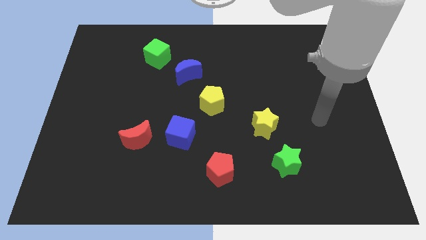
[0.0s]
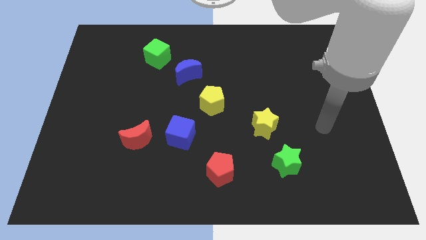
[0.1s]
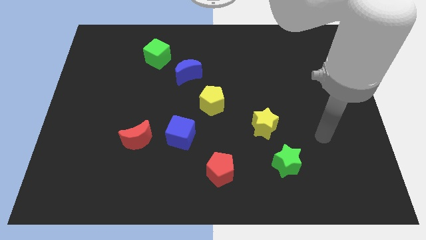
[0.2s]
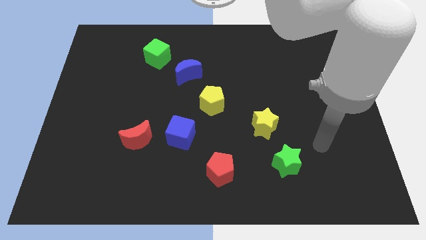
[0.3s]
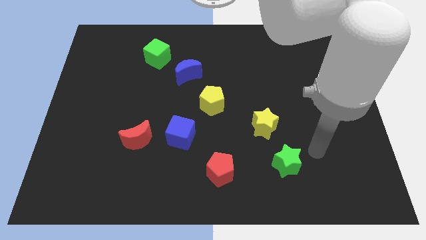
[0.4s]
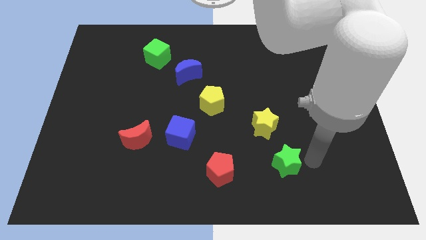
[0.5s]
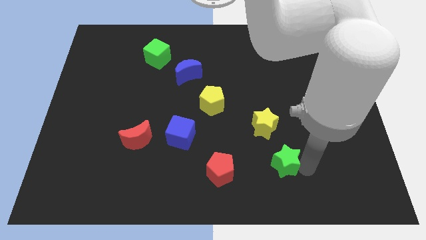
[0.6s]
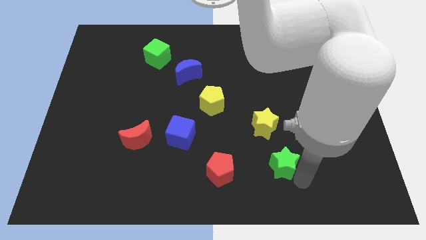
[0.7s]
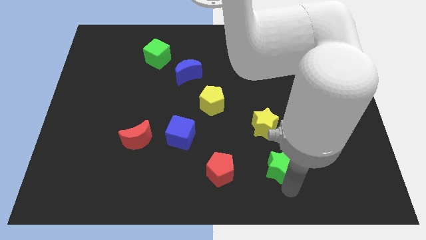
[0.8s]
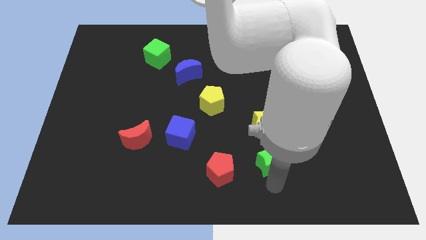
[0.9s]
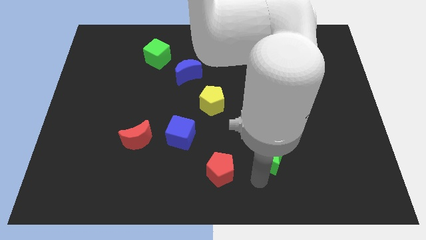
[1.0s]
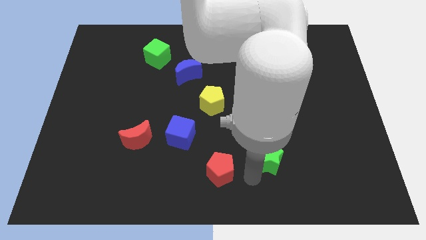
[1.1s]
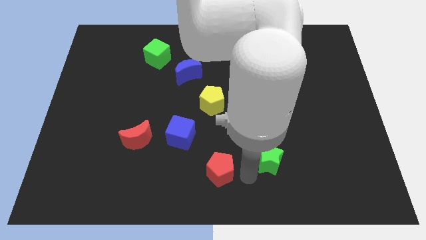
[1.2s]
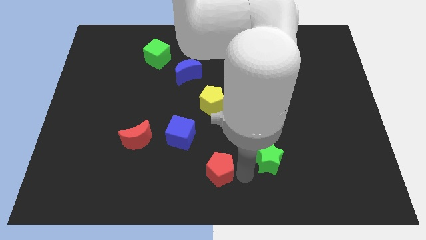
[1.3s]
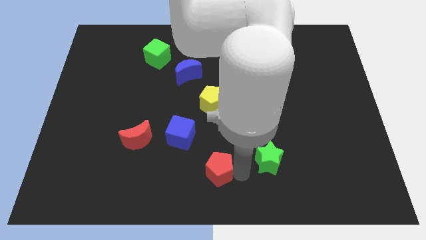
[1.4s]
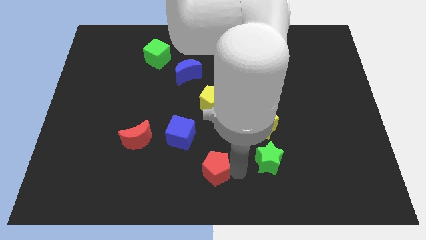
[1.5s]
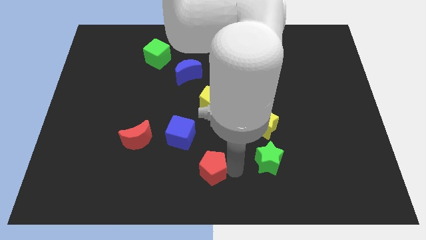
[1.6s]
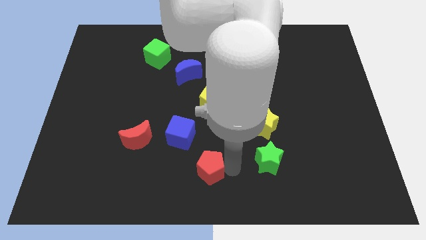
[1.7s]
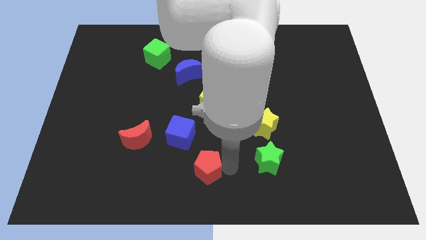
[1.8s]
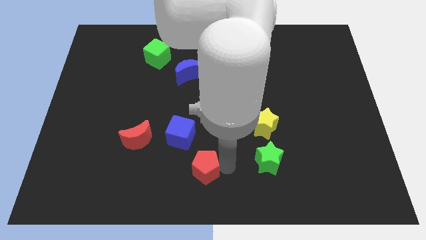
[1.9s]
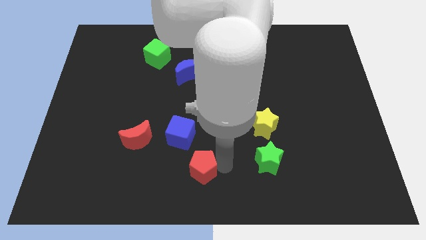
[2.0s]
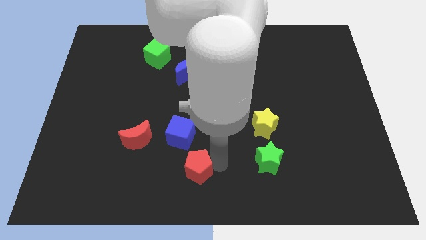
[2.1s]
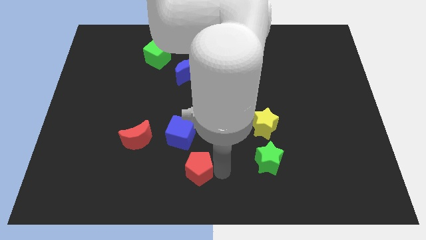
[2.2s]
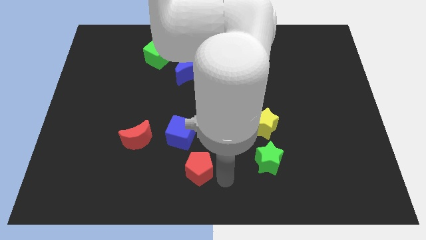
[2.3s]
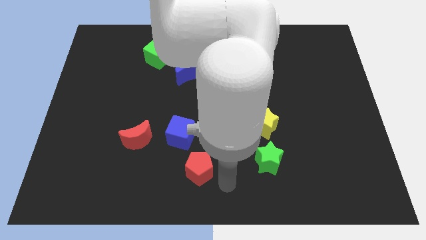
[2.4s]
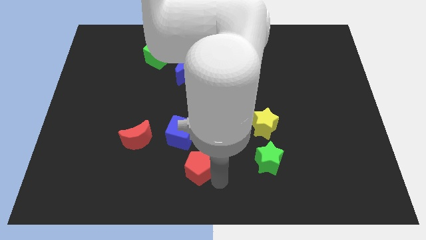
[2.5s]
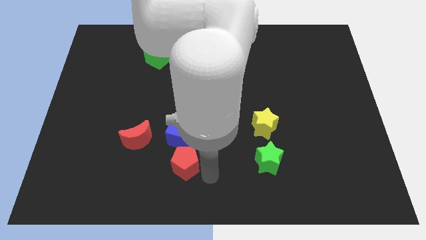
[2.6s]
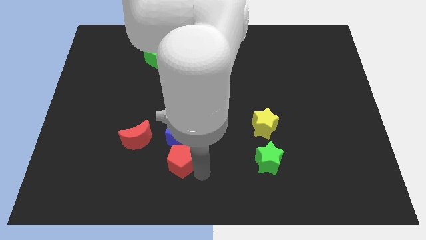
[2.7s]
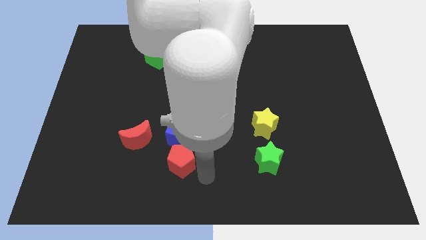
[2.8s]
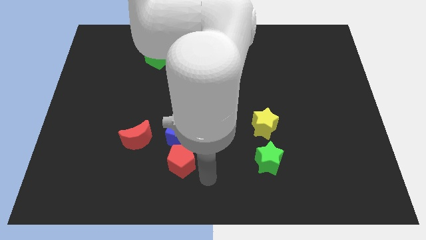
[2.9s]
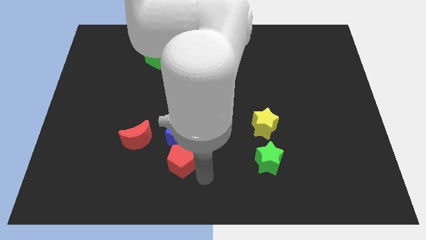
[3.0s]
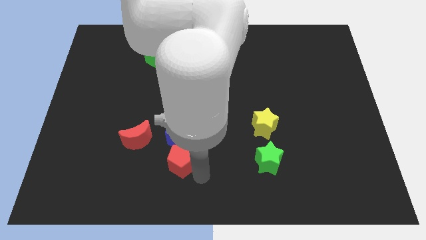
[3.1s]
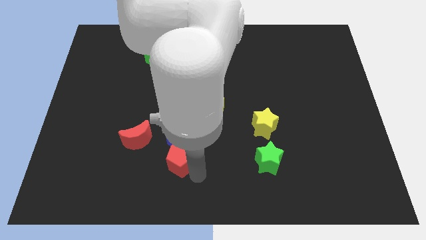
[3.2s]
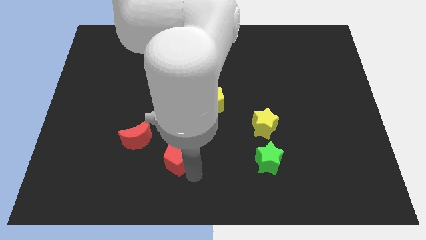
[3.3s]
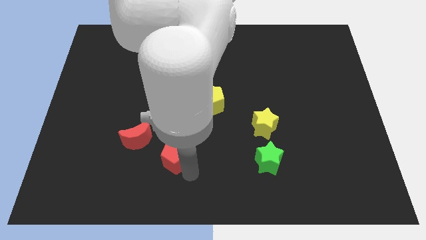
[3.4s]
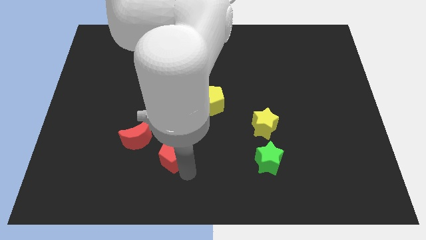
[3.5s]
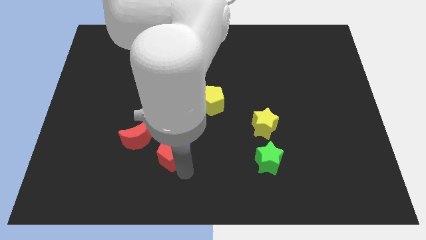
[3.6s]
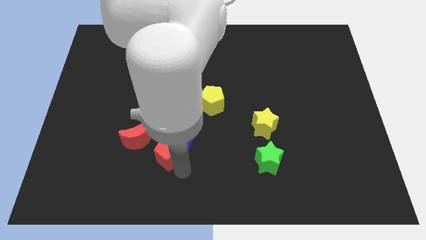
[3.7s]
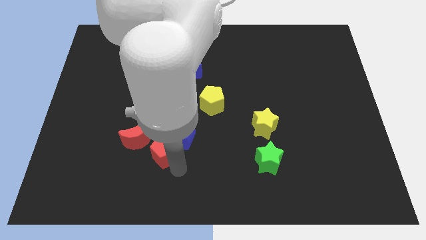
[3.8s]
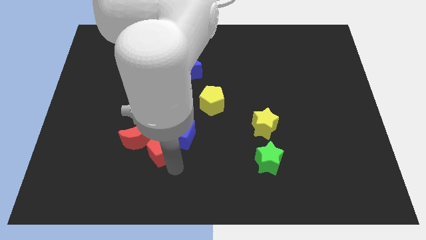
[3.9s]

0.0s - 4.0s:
put the red pentagon close to the red moon

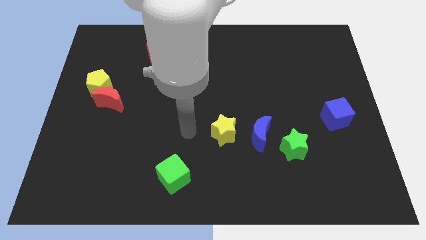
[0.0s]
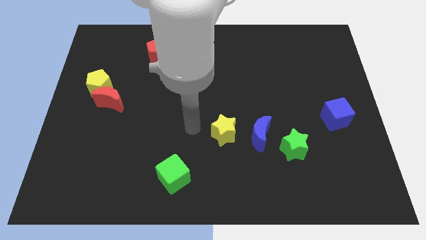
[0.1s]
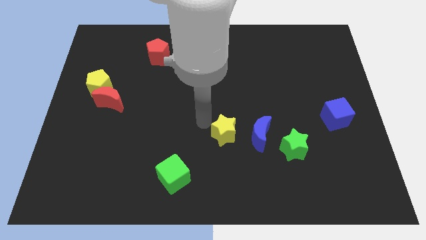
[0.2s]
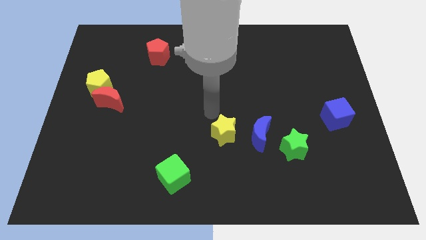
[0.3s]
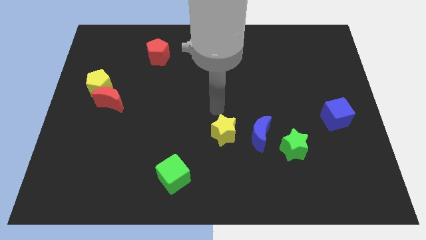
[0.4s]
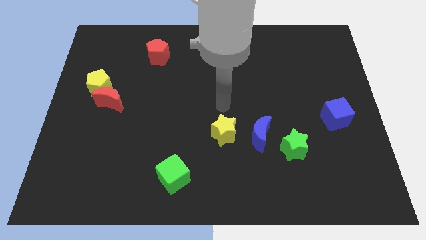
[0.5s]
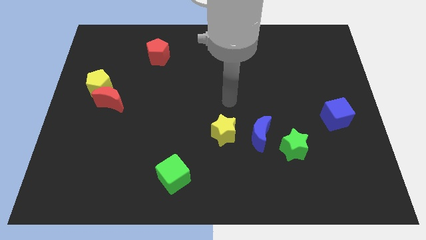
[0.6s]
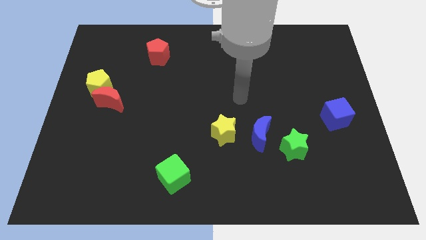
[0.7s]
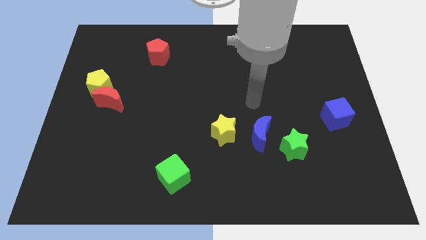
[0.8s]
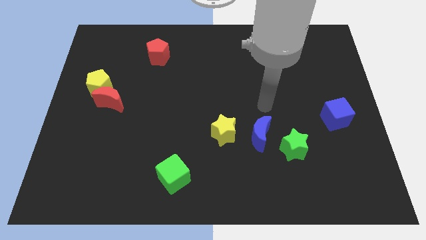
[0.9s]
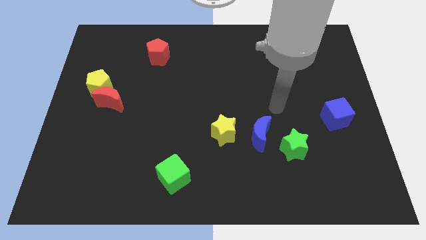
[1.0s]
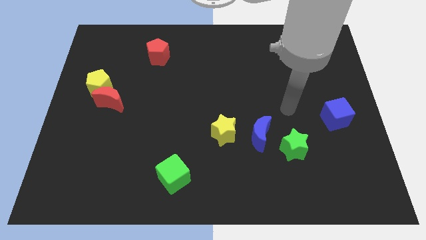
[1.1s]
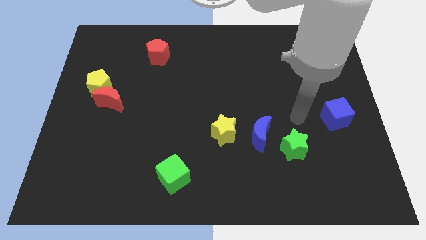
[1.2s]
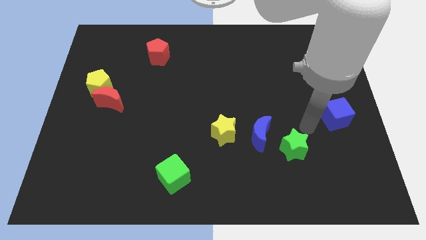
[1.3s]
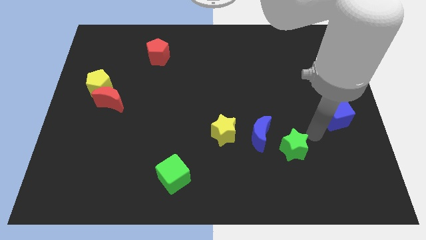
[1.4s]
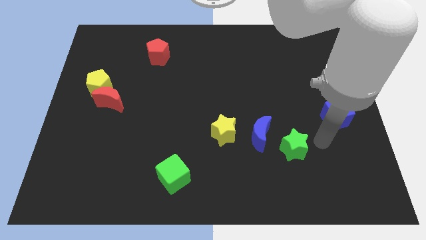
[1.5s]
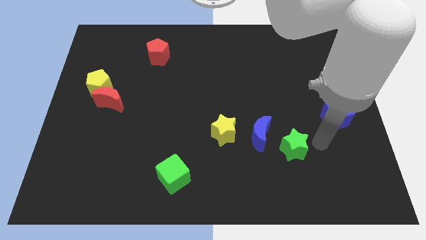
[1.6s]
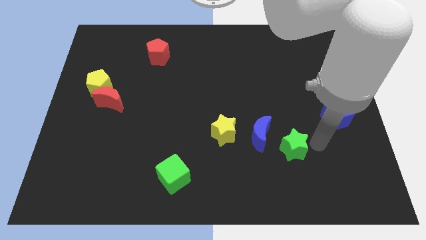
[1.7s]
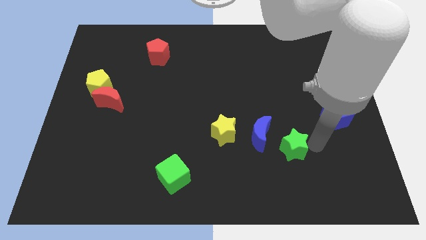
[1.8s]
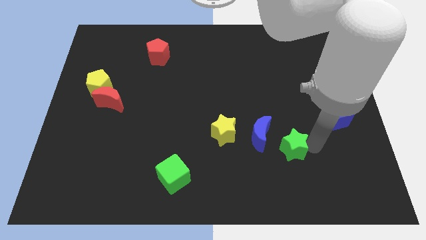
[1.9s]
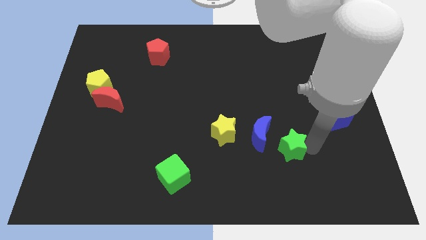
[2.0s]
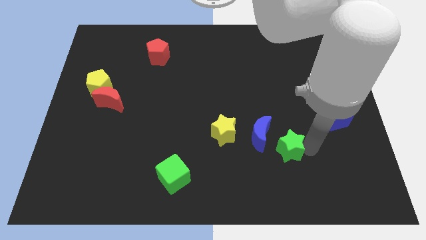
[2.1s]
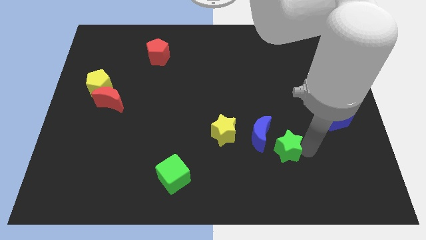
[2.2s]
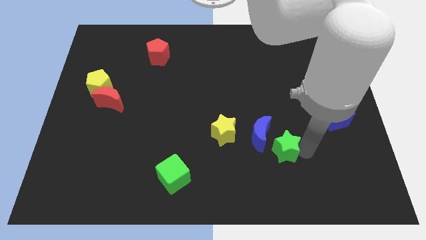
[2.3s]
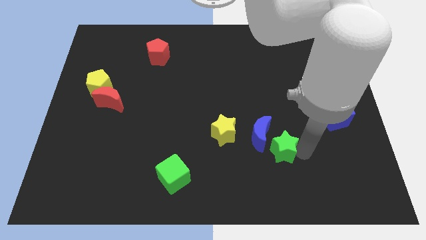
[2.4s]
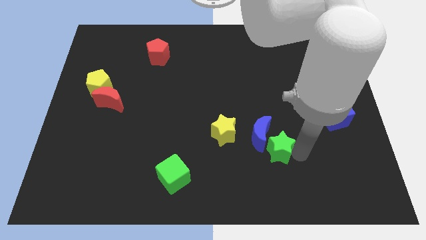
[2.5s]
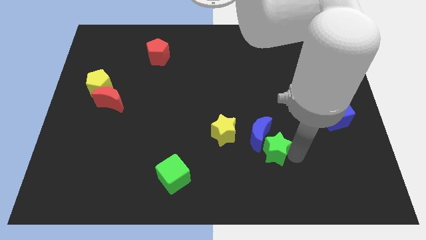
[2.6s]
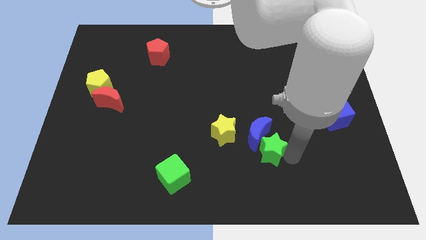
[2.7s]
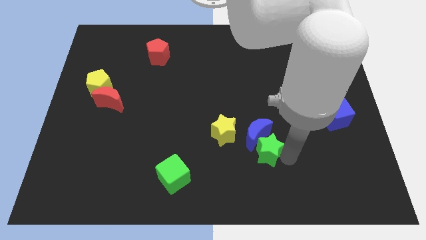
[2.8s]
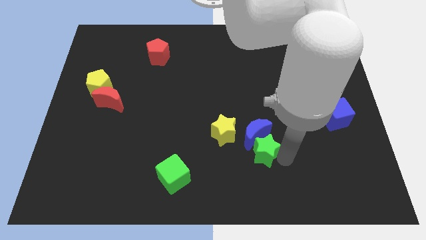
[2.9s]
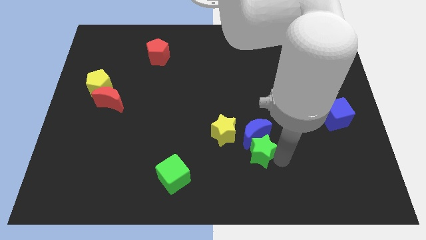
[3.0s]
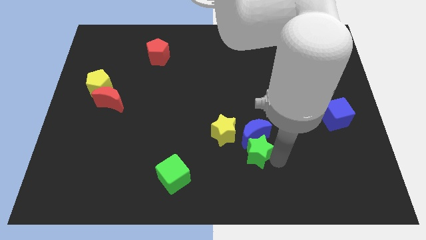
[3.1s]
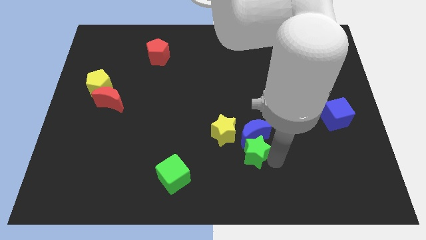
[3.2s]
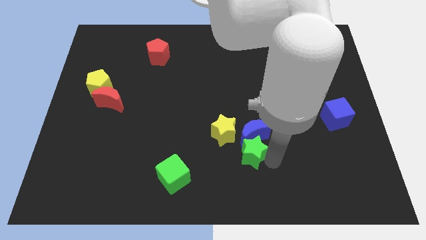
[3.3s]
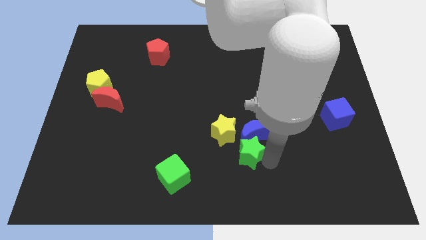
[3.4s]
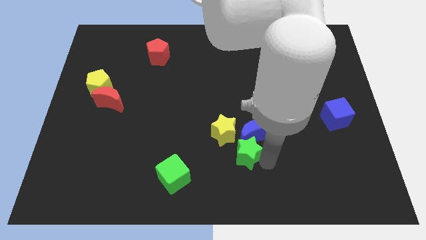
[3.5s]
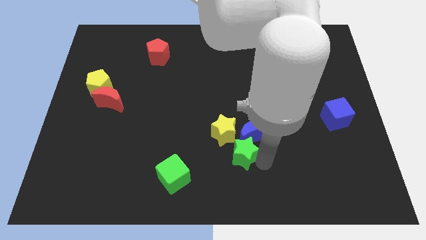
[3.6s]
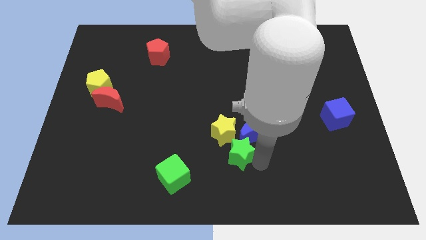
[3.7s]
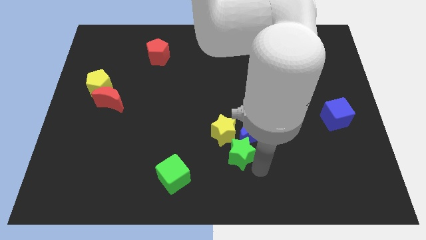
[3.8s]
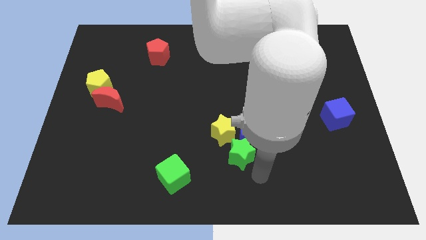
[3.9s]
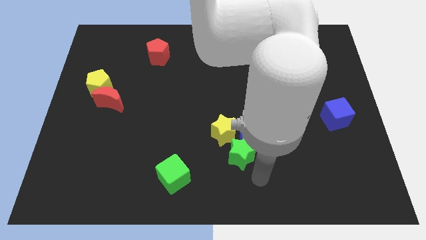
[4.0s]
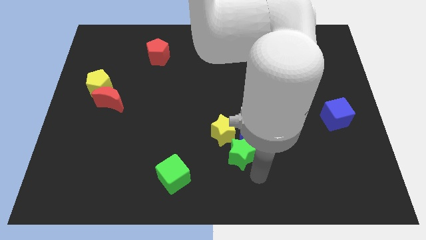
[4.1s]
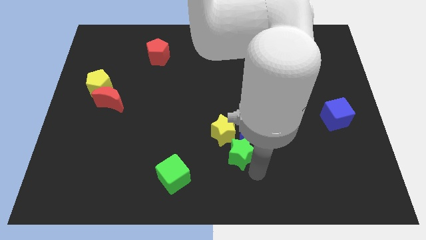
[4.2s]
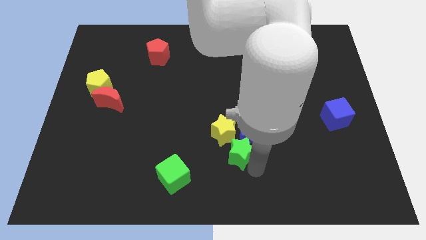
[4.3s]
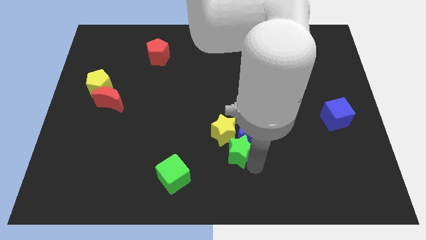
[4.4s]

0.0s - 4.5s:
push the green star towards the yellow star
